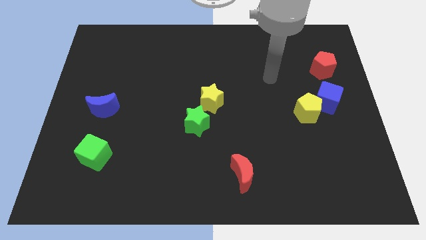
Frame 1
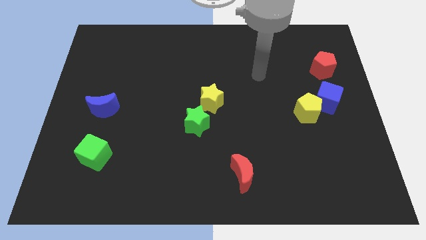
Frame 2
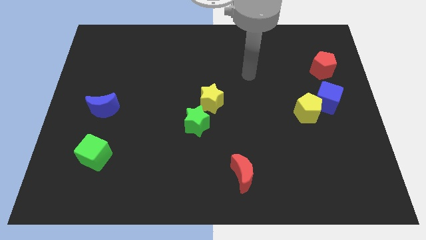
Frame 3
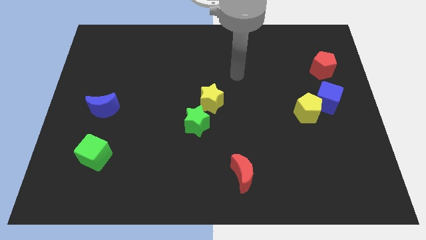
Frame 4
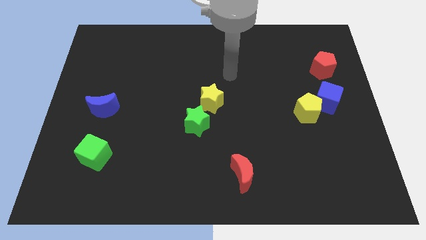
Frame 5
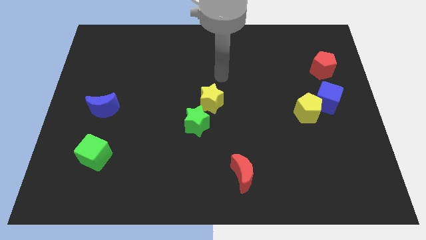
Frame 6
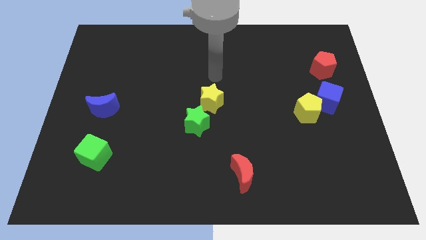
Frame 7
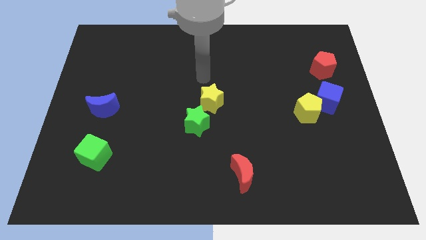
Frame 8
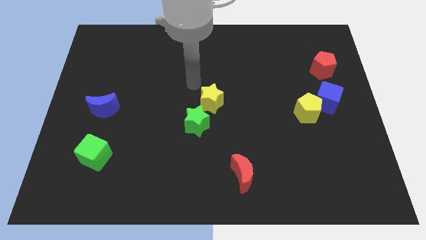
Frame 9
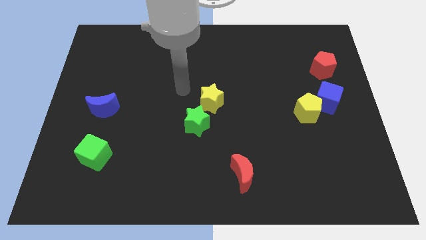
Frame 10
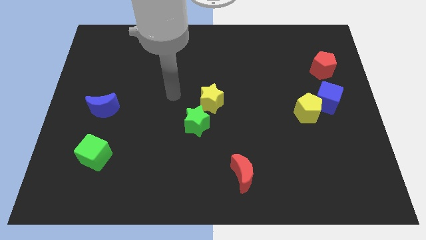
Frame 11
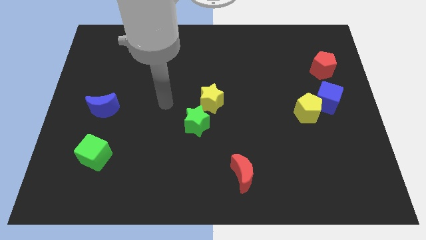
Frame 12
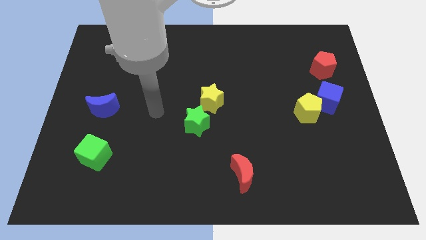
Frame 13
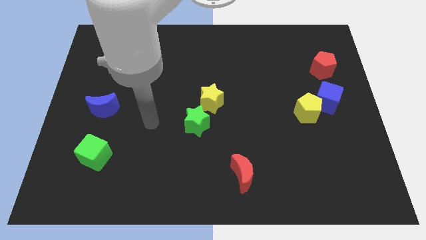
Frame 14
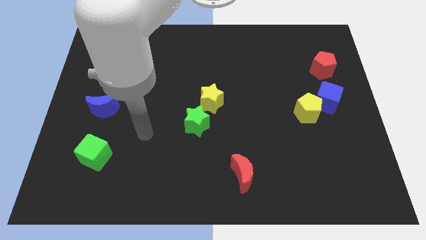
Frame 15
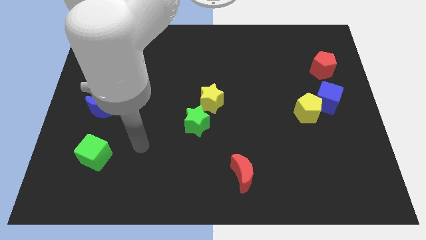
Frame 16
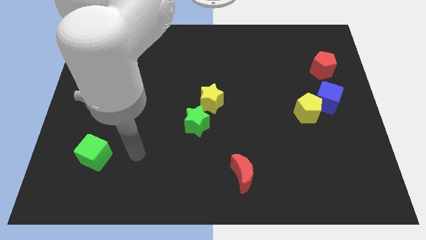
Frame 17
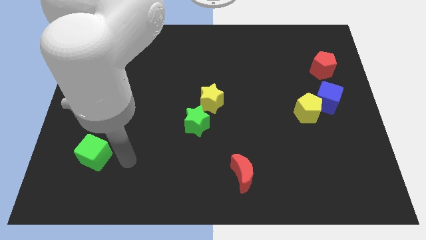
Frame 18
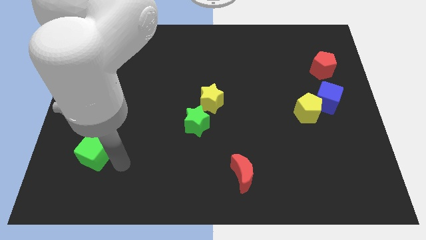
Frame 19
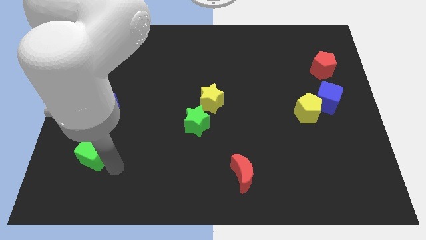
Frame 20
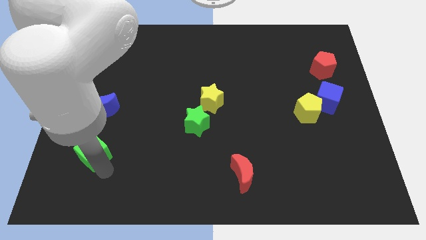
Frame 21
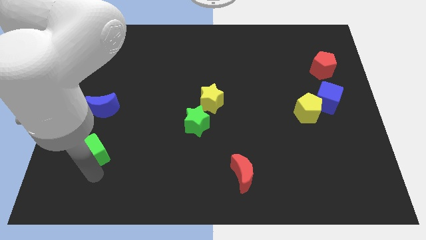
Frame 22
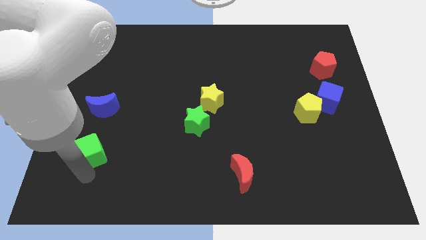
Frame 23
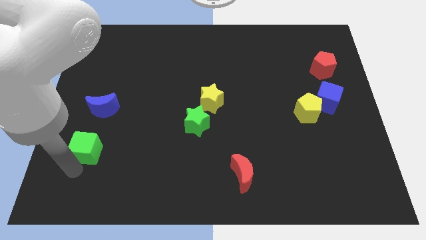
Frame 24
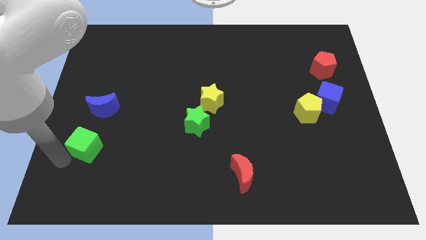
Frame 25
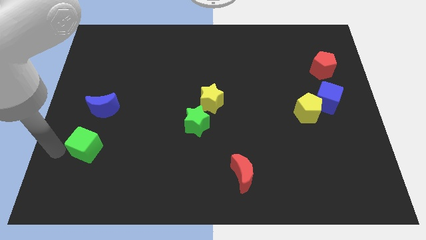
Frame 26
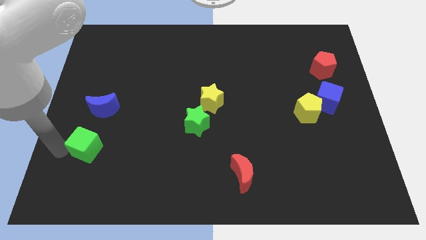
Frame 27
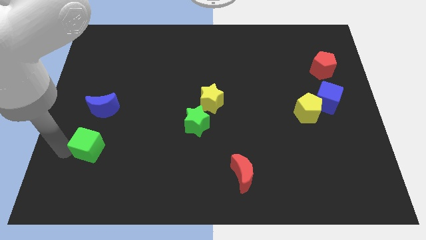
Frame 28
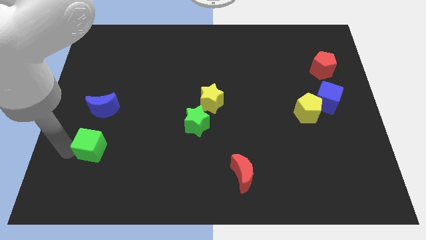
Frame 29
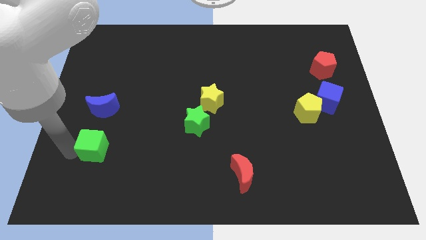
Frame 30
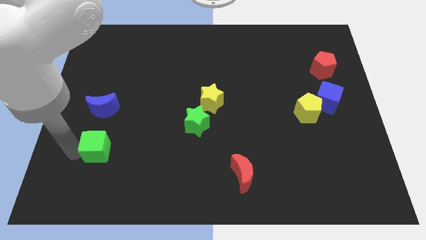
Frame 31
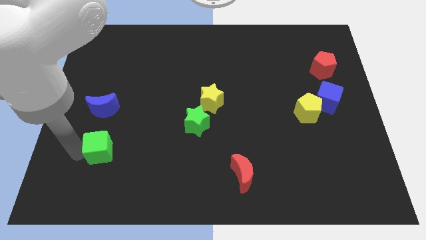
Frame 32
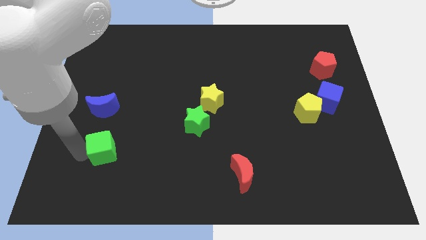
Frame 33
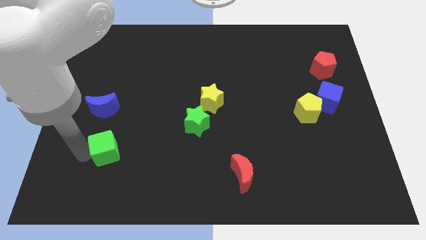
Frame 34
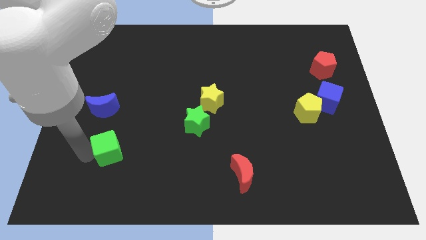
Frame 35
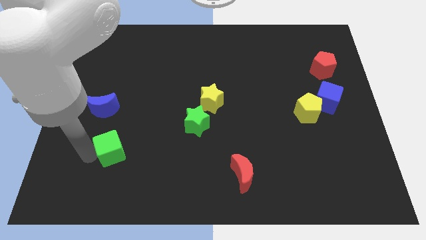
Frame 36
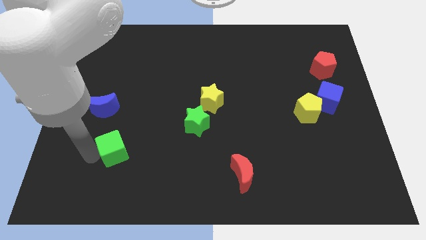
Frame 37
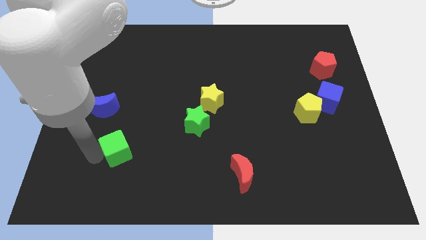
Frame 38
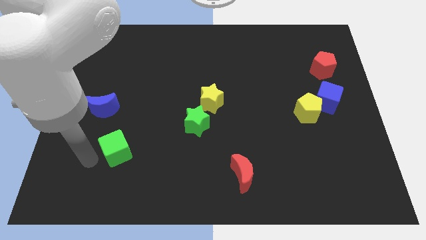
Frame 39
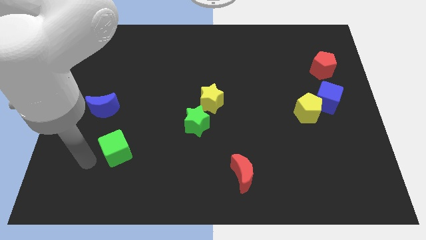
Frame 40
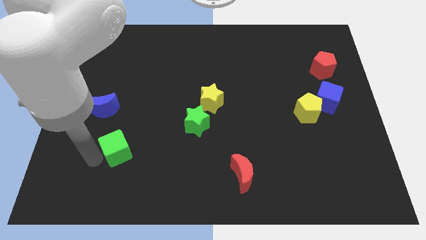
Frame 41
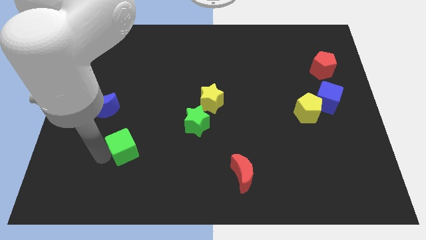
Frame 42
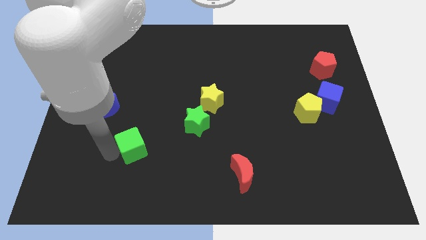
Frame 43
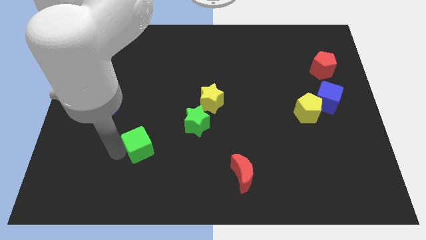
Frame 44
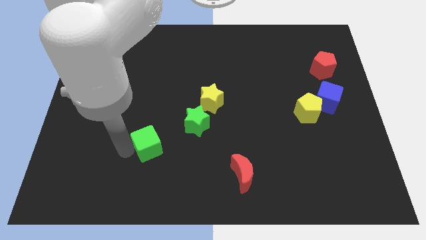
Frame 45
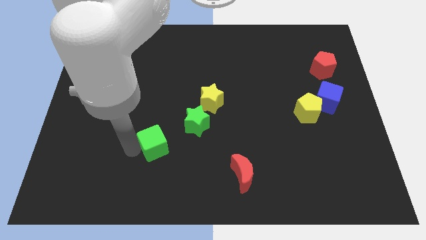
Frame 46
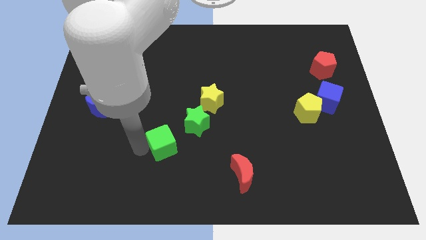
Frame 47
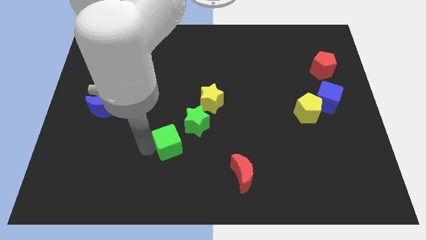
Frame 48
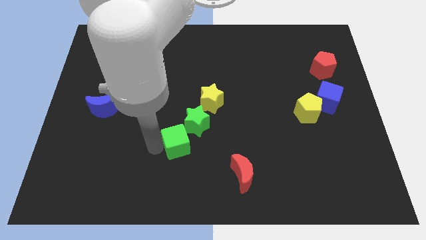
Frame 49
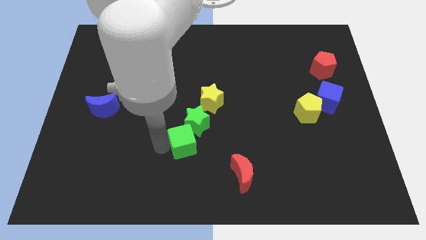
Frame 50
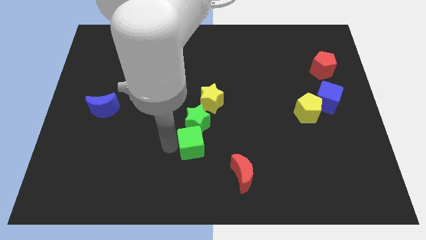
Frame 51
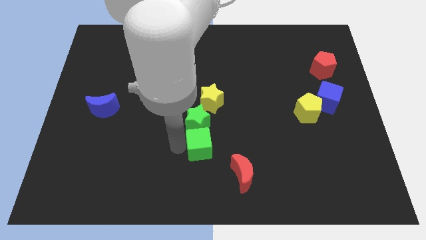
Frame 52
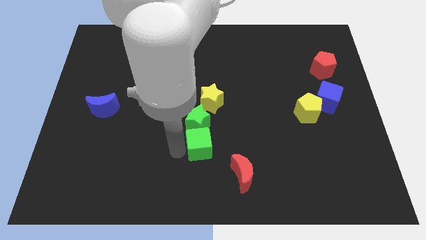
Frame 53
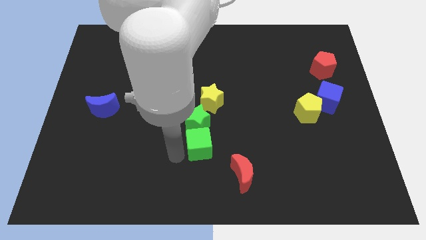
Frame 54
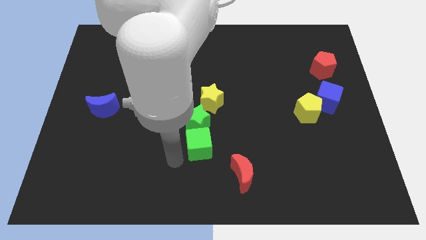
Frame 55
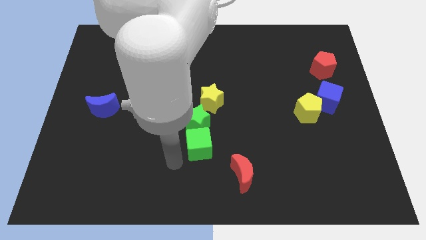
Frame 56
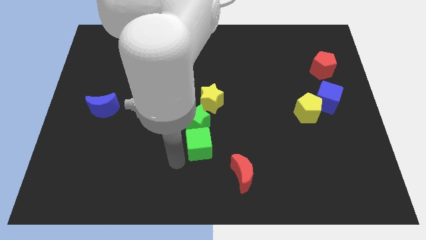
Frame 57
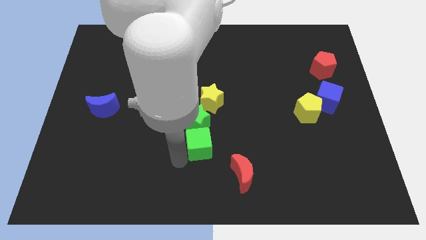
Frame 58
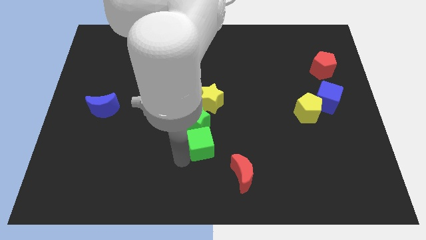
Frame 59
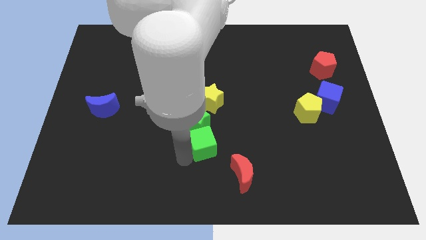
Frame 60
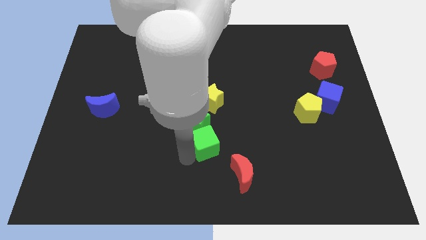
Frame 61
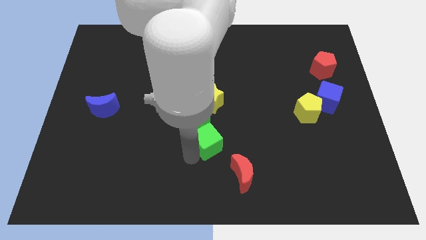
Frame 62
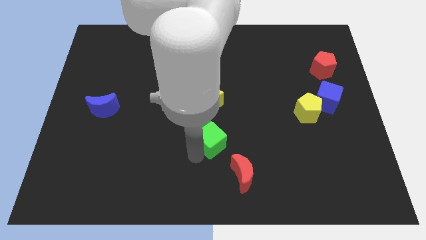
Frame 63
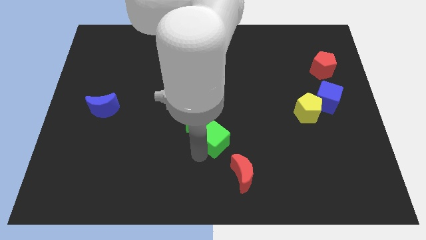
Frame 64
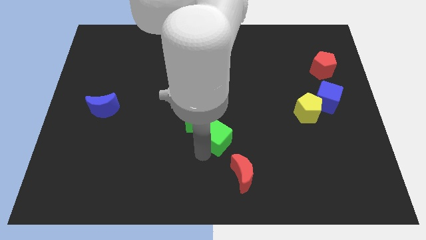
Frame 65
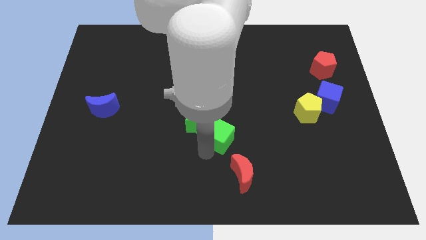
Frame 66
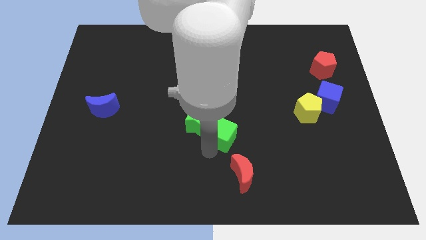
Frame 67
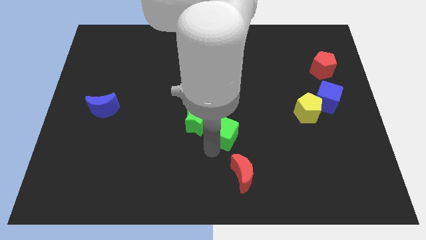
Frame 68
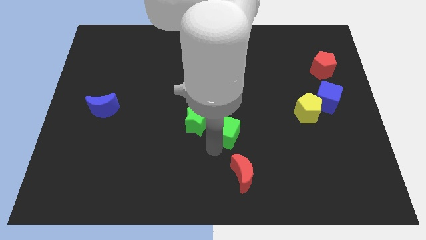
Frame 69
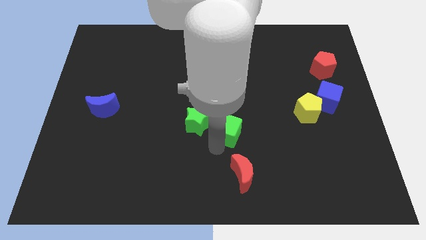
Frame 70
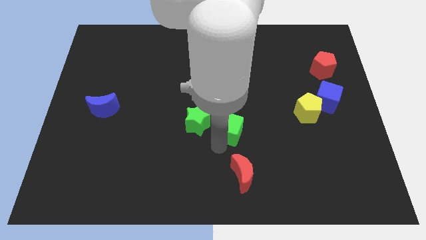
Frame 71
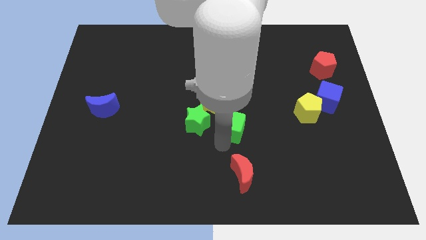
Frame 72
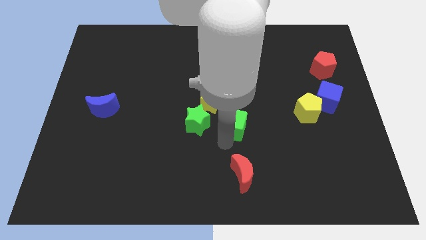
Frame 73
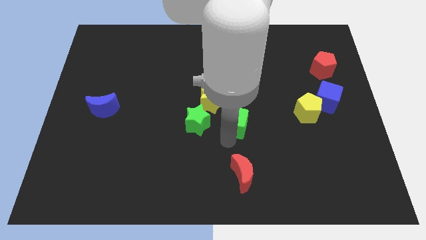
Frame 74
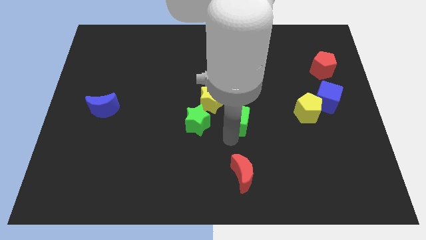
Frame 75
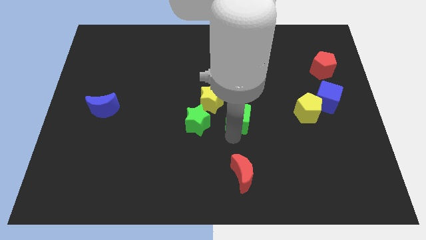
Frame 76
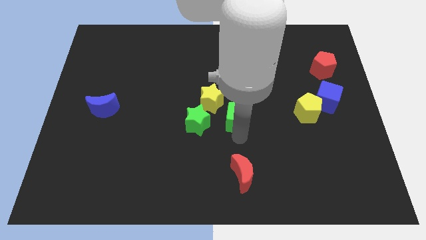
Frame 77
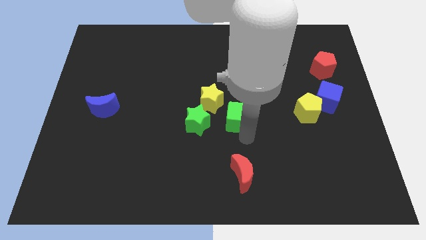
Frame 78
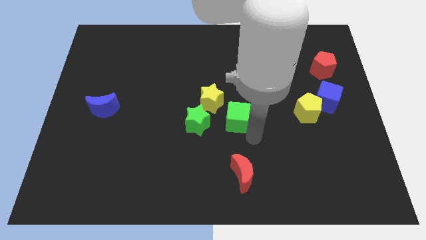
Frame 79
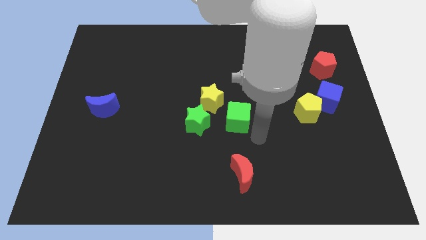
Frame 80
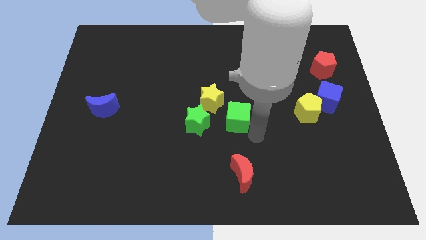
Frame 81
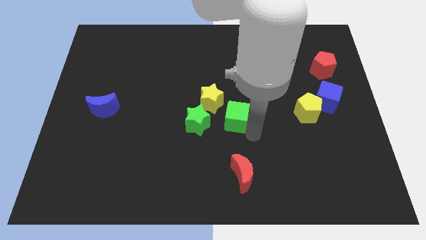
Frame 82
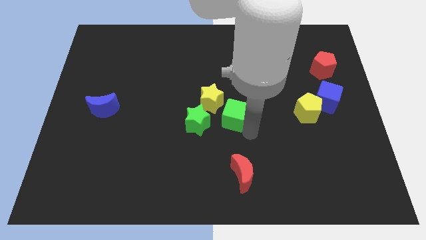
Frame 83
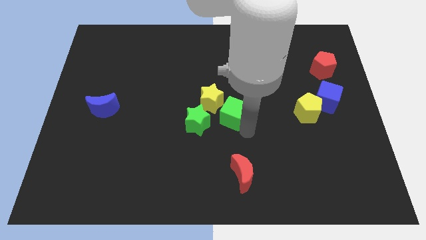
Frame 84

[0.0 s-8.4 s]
put the green cube diagonally up and to the right of the green star
